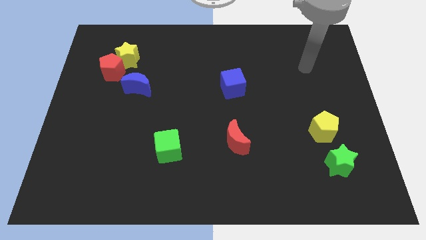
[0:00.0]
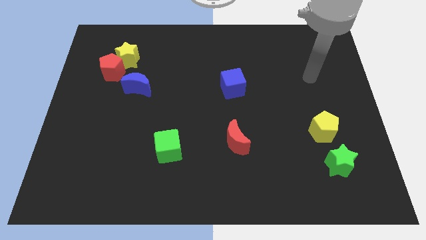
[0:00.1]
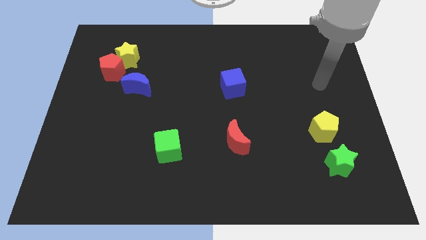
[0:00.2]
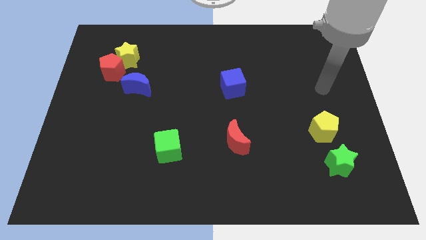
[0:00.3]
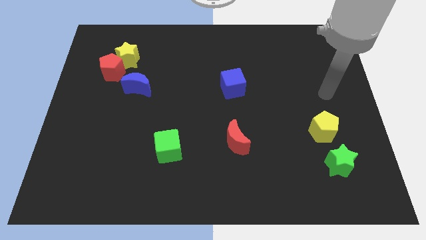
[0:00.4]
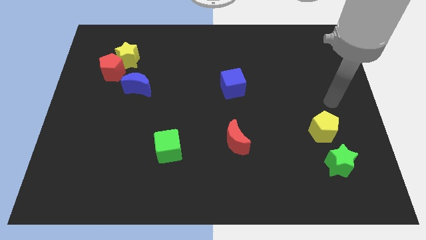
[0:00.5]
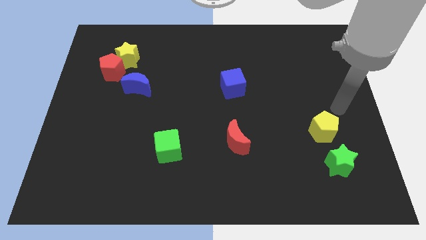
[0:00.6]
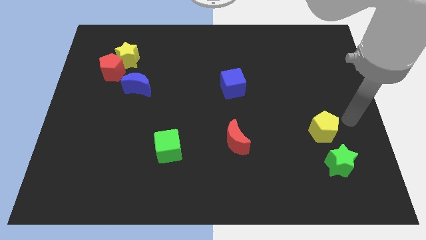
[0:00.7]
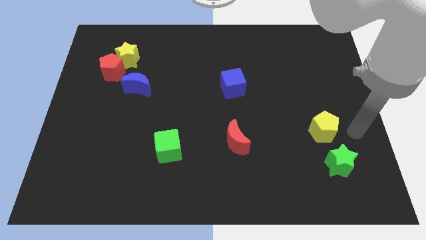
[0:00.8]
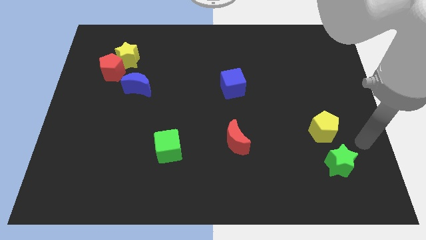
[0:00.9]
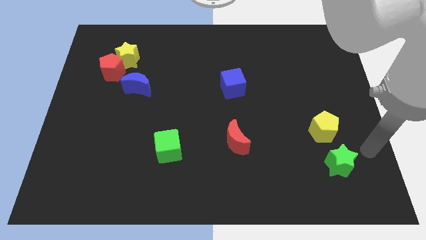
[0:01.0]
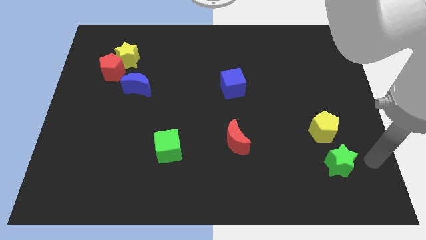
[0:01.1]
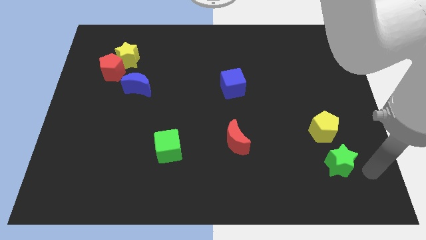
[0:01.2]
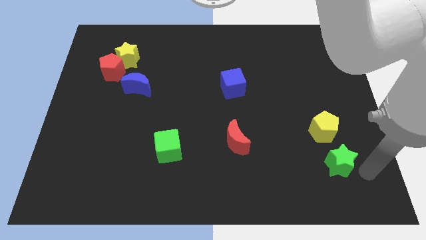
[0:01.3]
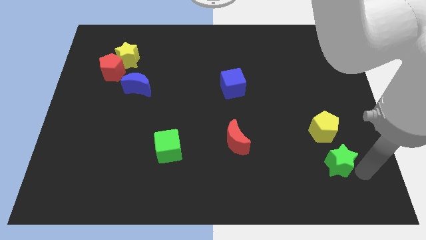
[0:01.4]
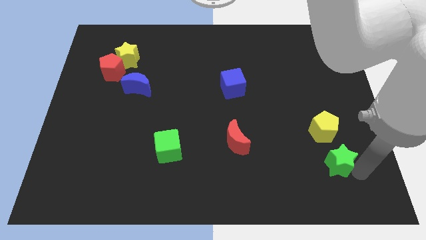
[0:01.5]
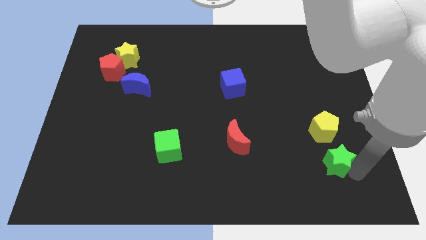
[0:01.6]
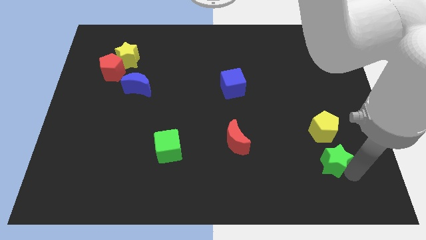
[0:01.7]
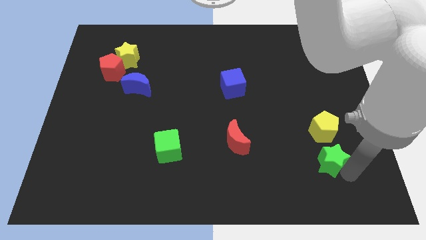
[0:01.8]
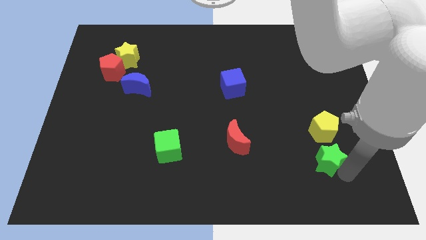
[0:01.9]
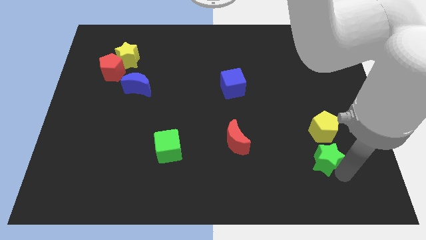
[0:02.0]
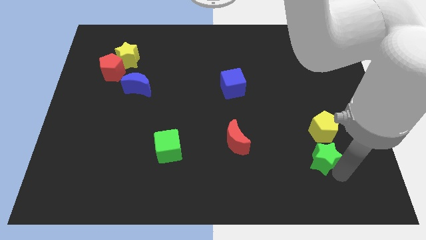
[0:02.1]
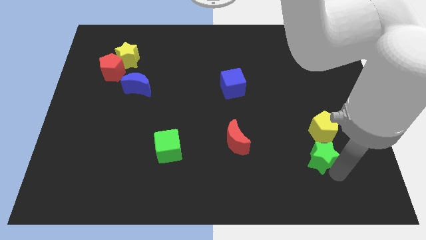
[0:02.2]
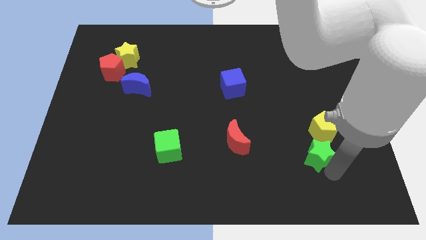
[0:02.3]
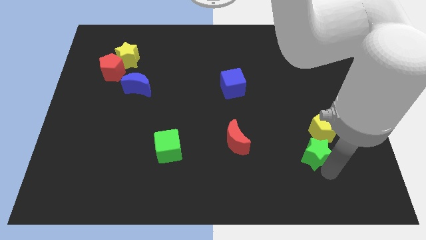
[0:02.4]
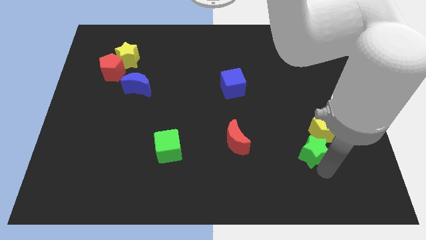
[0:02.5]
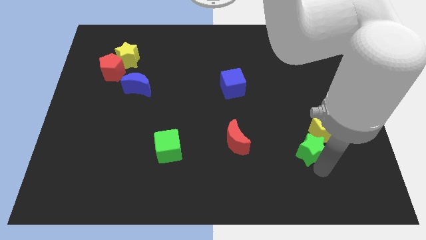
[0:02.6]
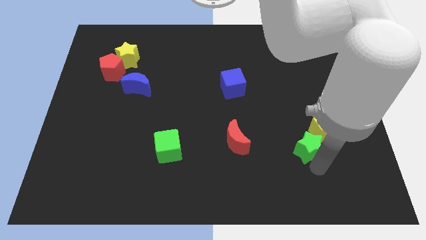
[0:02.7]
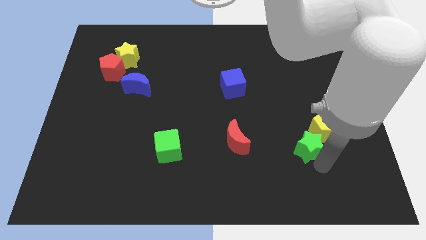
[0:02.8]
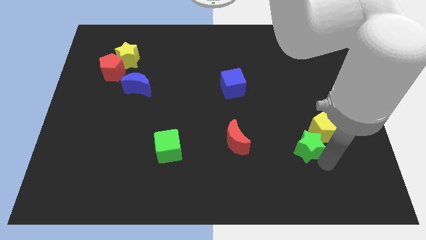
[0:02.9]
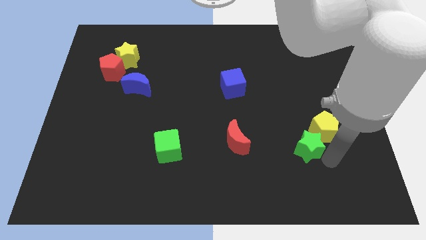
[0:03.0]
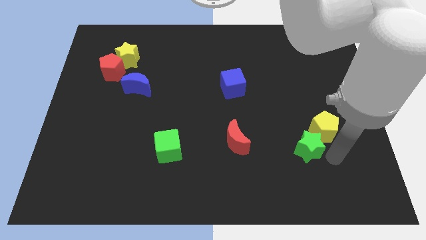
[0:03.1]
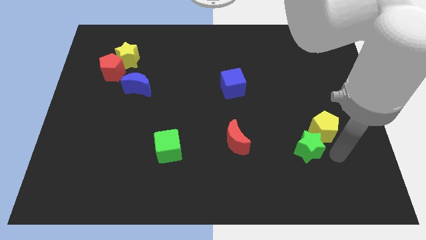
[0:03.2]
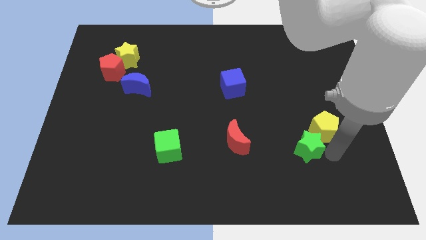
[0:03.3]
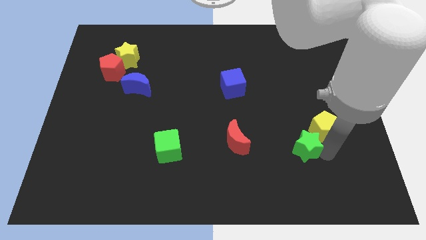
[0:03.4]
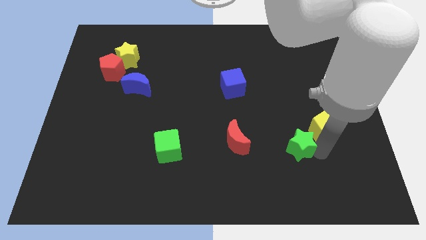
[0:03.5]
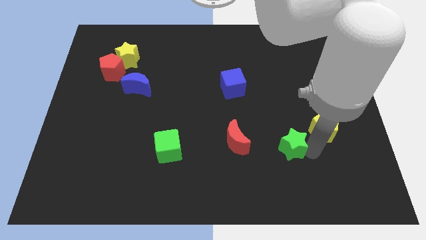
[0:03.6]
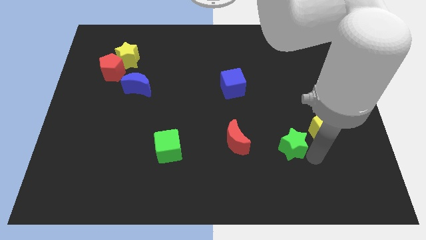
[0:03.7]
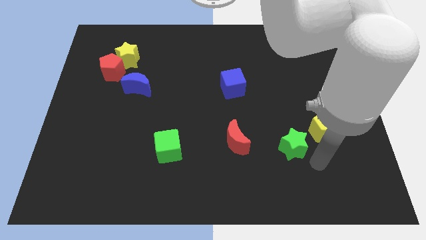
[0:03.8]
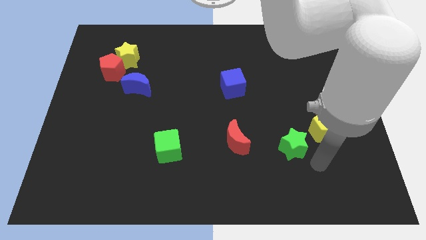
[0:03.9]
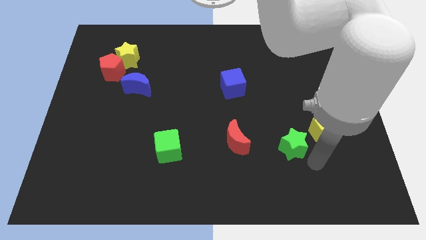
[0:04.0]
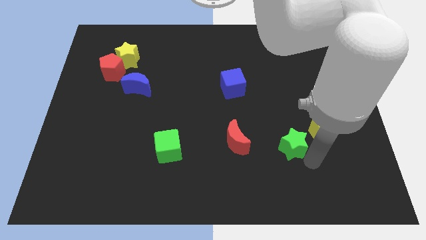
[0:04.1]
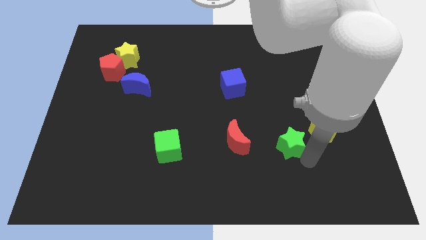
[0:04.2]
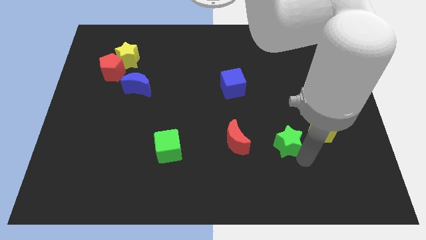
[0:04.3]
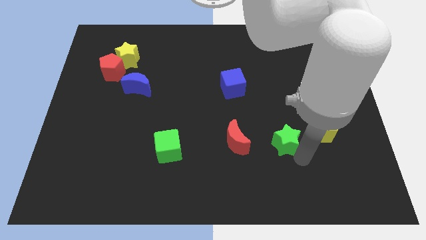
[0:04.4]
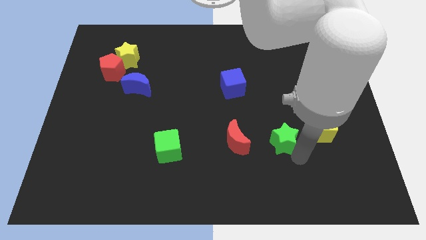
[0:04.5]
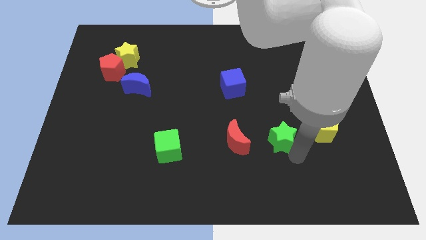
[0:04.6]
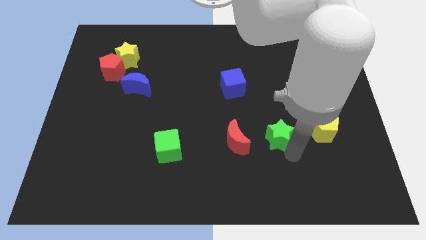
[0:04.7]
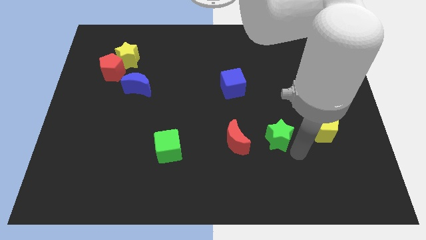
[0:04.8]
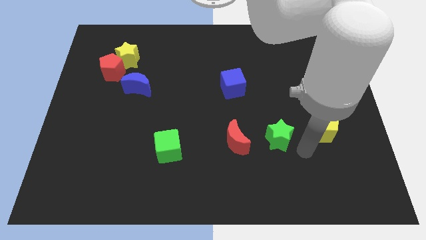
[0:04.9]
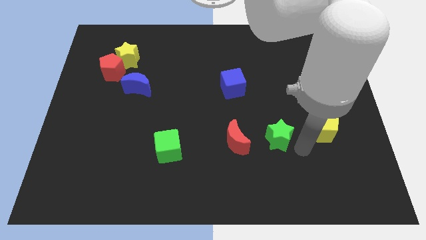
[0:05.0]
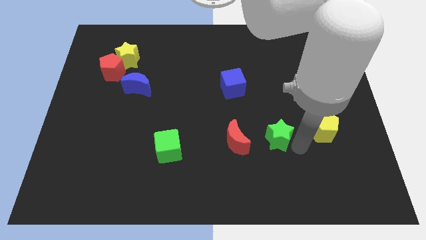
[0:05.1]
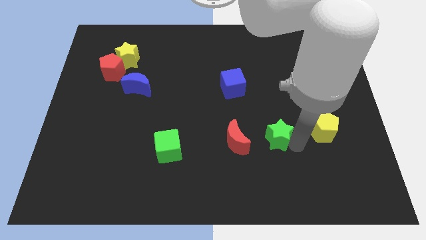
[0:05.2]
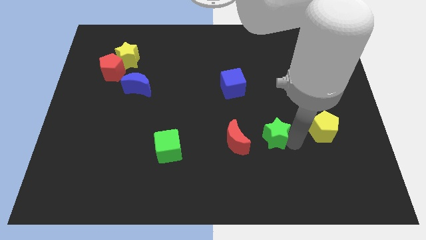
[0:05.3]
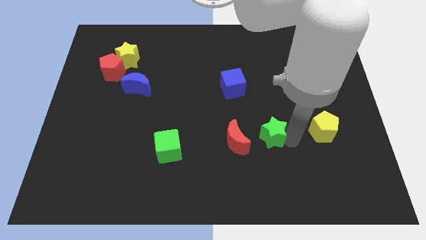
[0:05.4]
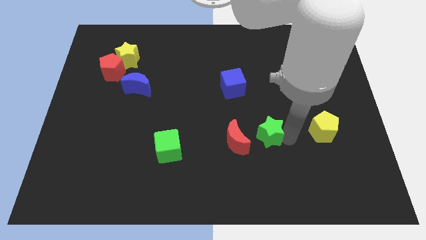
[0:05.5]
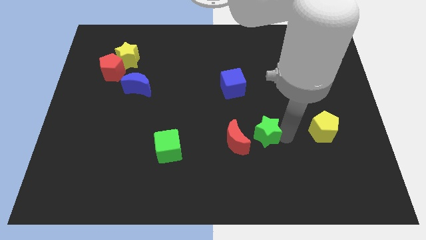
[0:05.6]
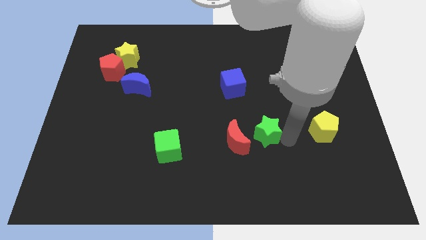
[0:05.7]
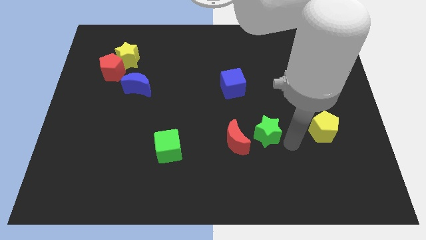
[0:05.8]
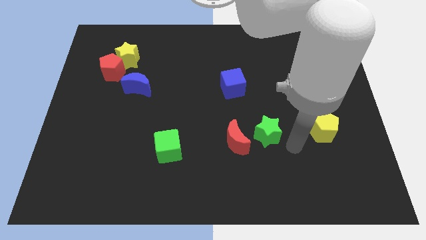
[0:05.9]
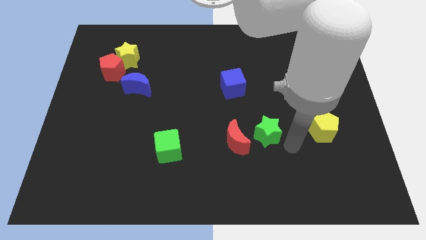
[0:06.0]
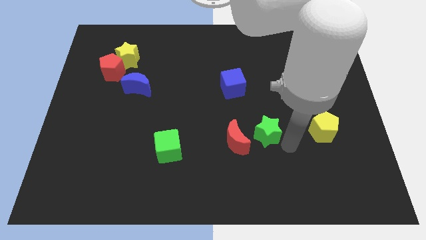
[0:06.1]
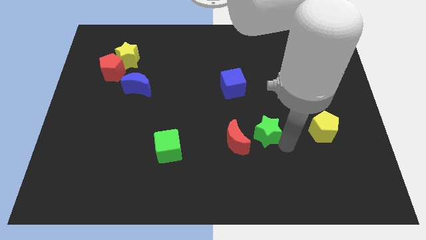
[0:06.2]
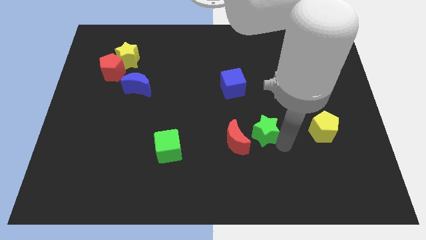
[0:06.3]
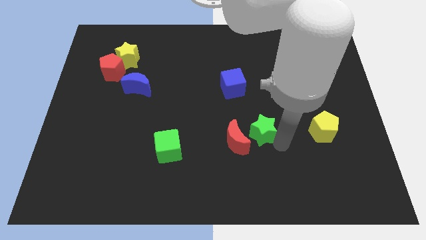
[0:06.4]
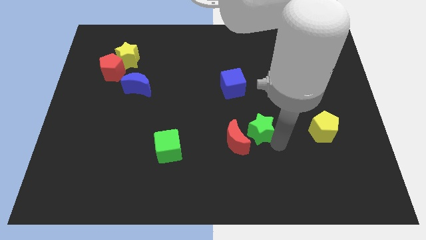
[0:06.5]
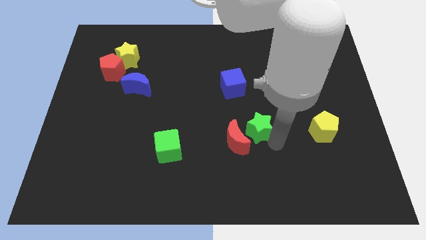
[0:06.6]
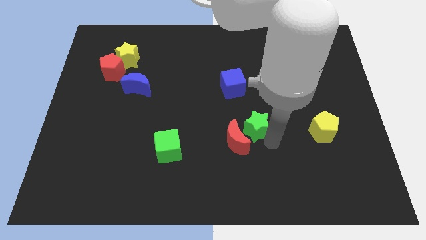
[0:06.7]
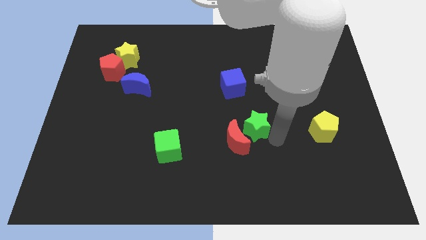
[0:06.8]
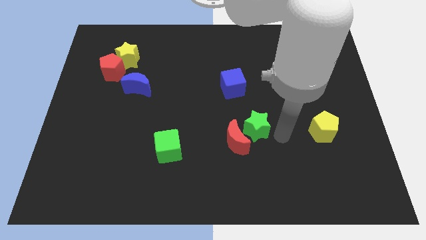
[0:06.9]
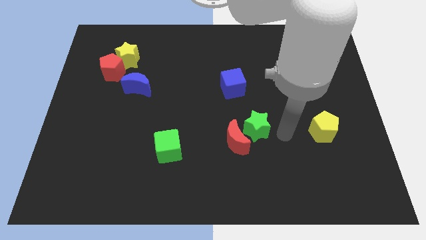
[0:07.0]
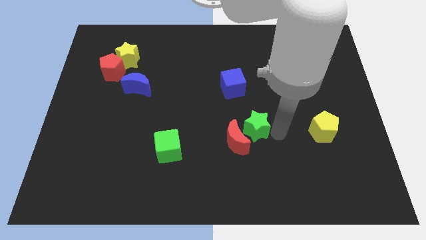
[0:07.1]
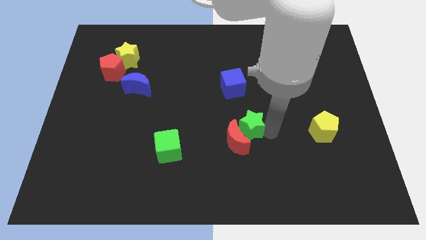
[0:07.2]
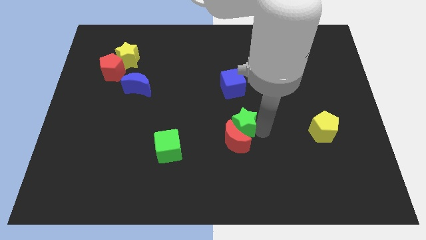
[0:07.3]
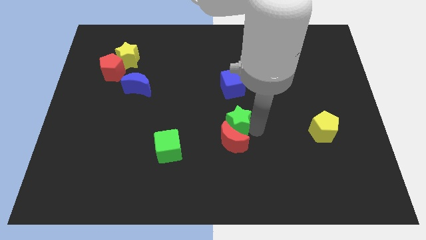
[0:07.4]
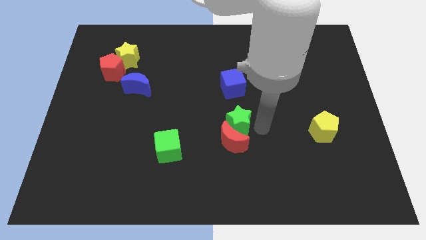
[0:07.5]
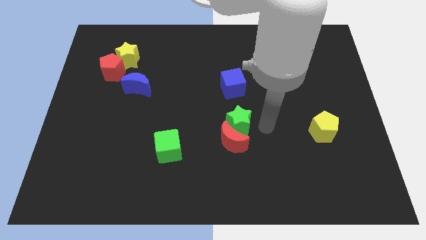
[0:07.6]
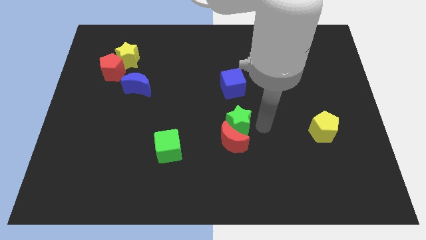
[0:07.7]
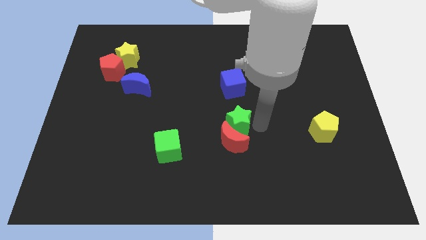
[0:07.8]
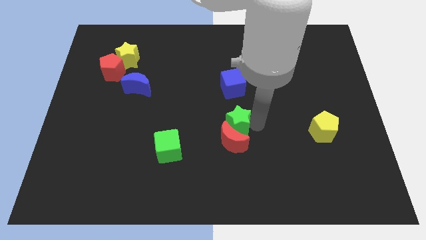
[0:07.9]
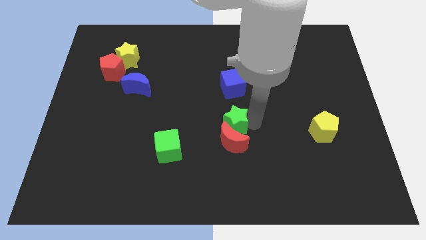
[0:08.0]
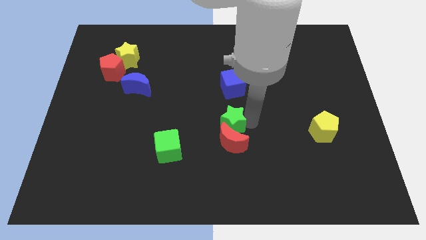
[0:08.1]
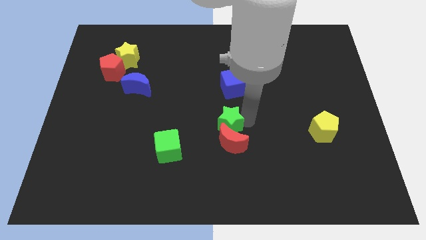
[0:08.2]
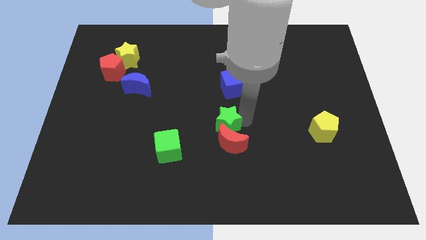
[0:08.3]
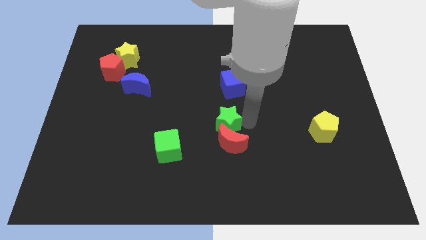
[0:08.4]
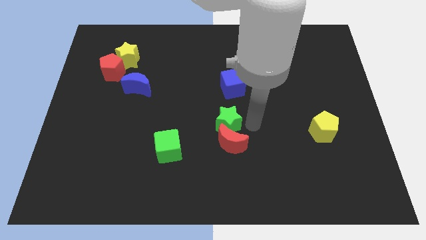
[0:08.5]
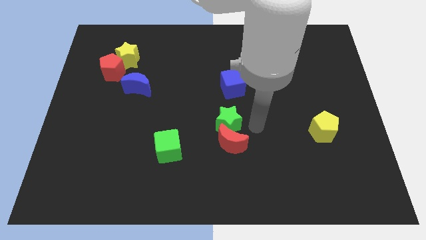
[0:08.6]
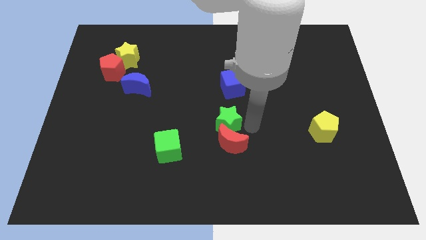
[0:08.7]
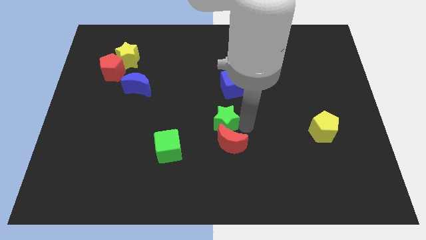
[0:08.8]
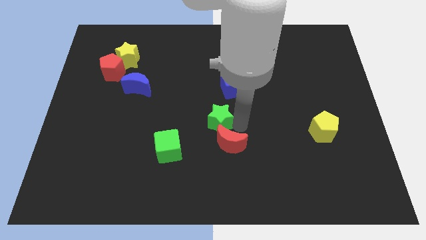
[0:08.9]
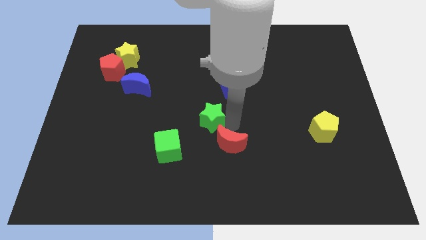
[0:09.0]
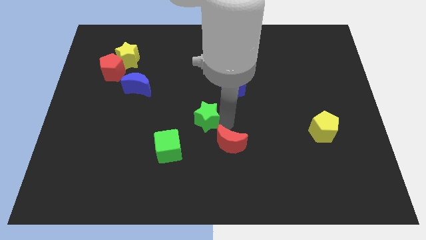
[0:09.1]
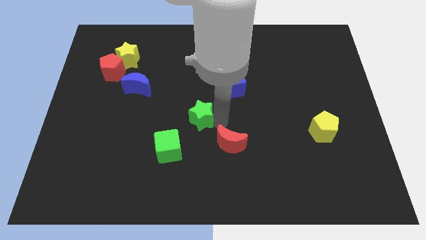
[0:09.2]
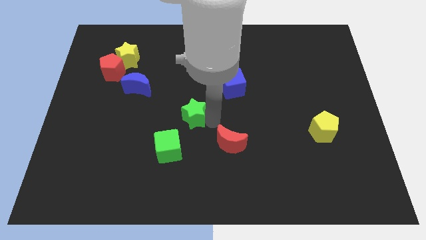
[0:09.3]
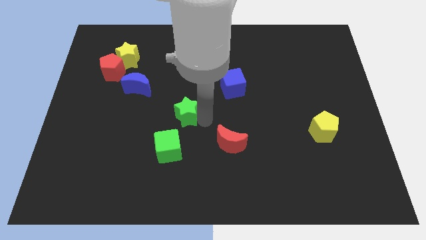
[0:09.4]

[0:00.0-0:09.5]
move the green star above the green cube
